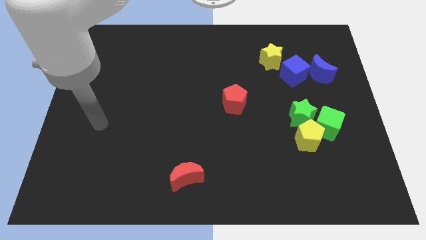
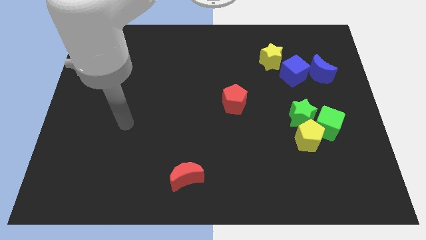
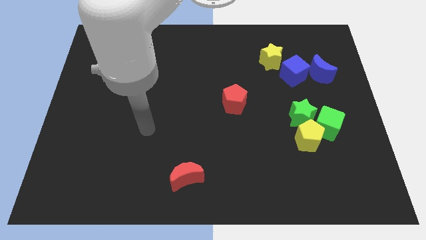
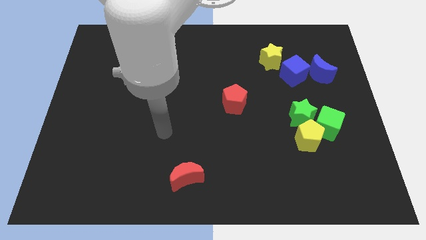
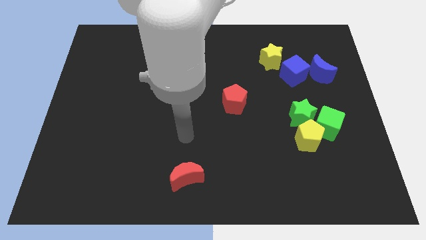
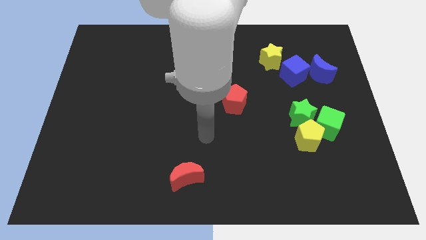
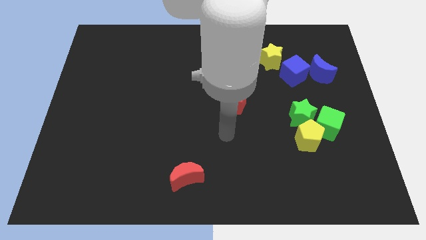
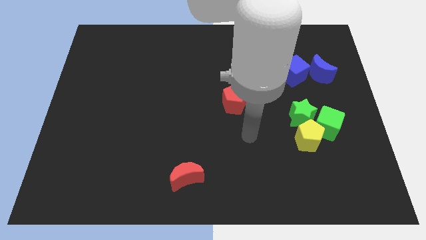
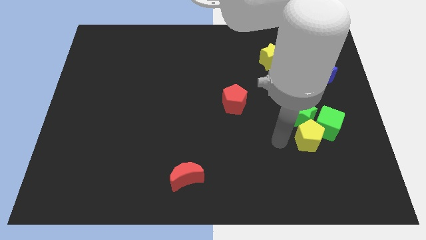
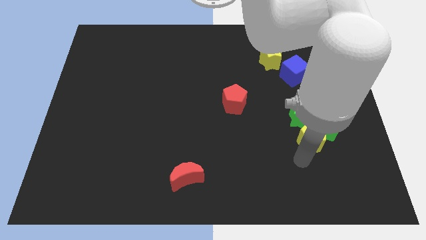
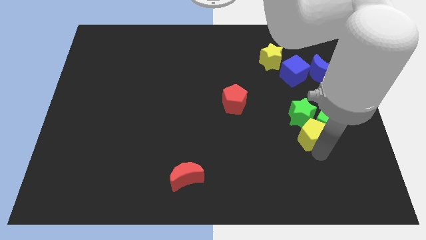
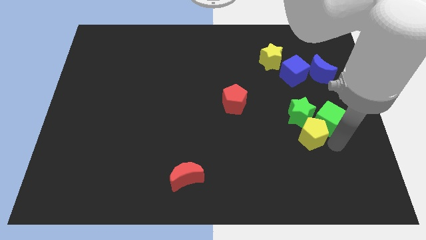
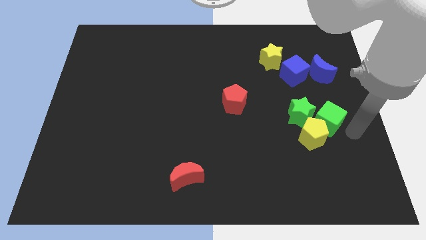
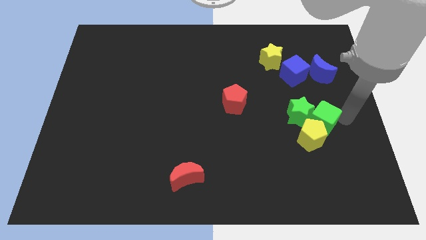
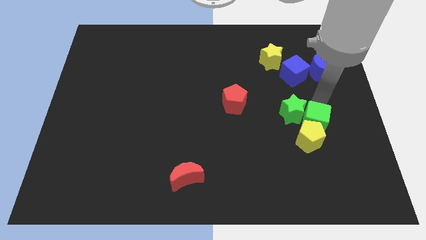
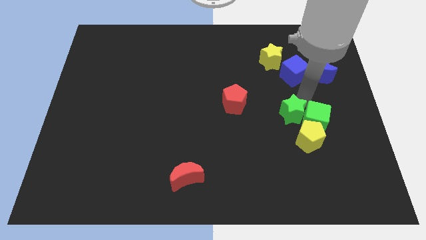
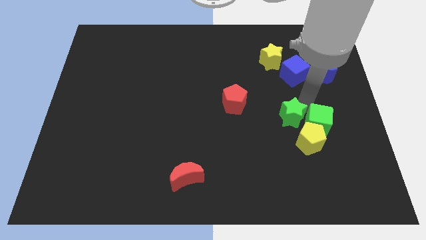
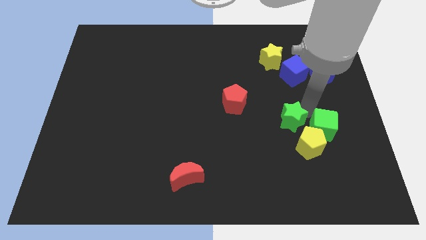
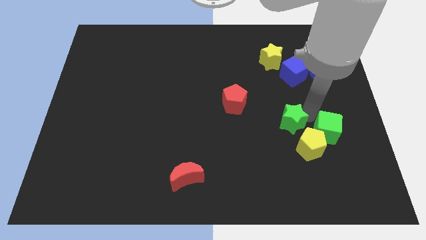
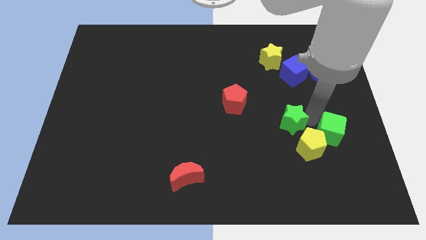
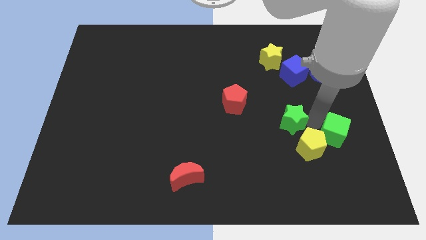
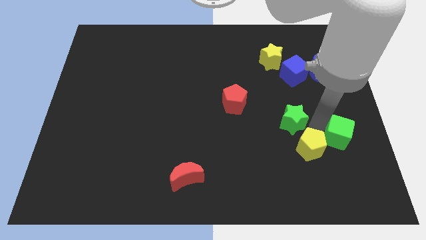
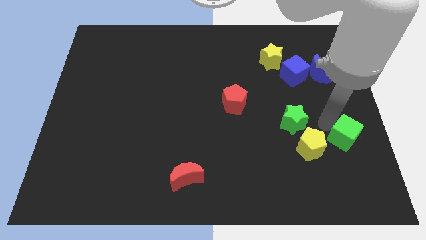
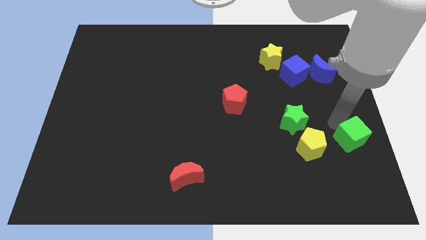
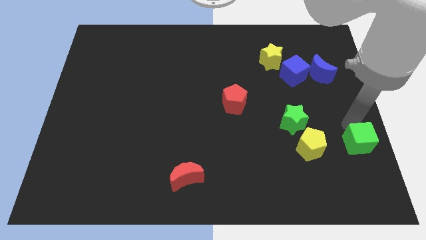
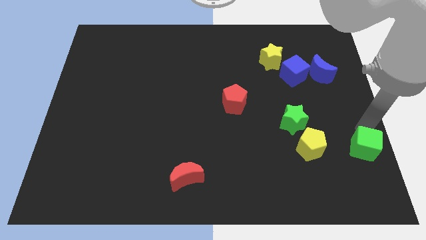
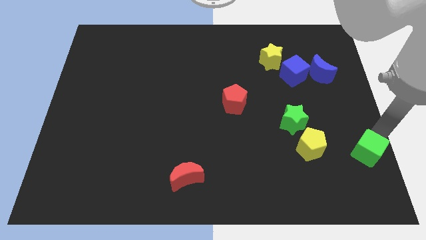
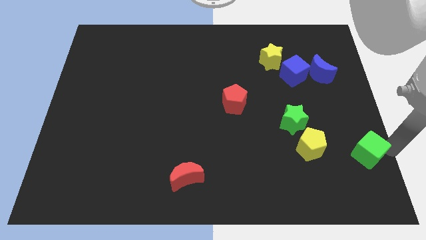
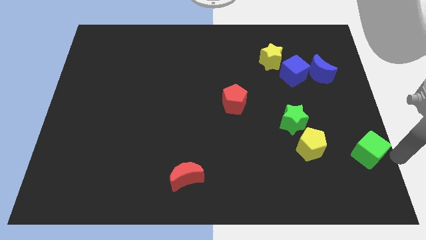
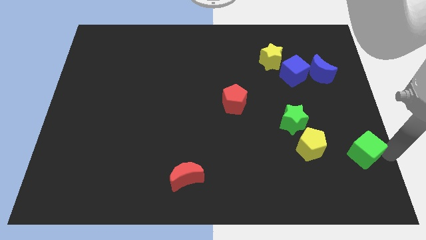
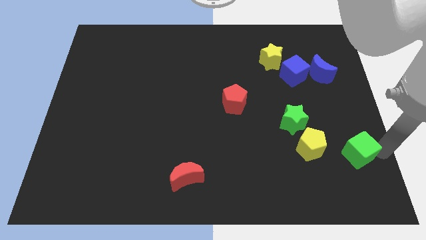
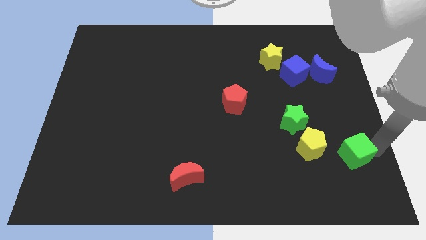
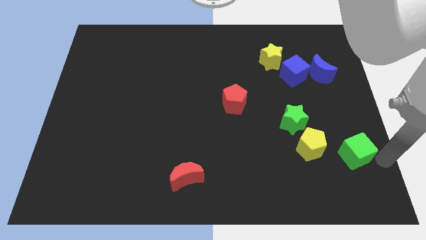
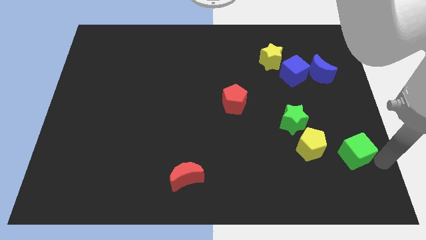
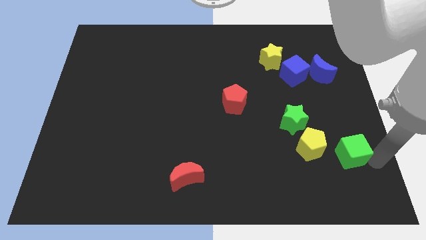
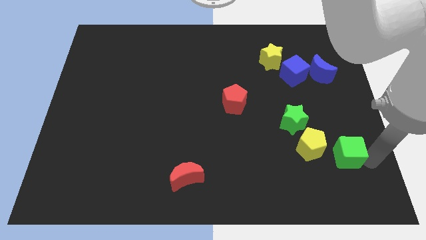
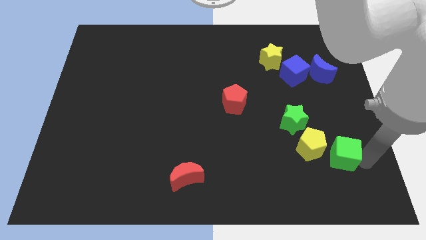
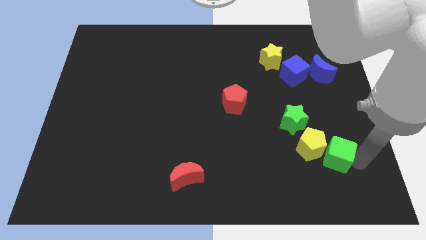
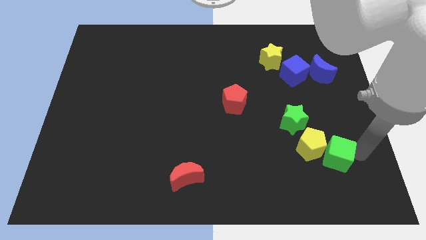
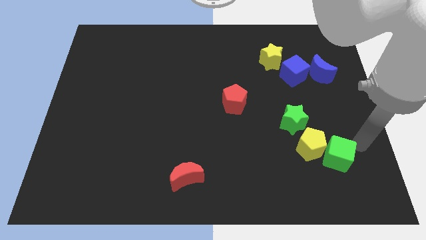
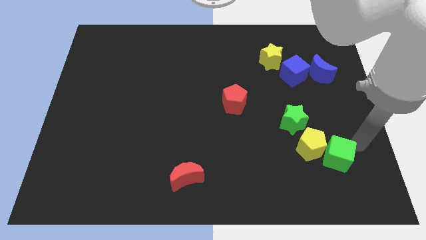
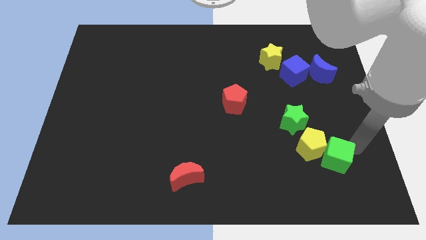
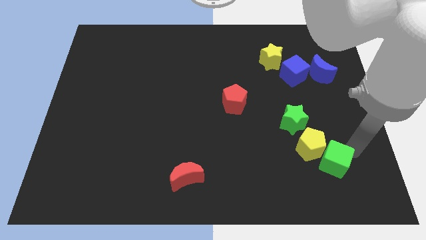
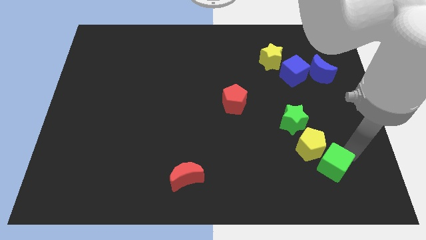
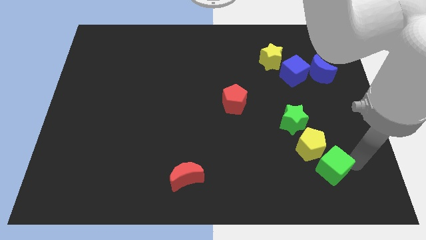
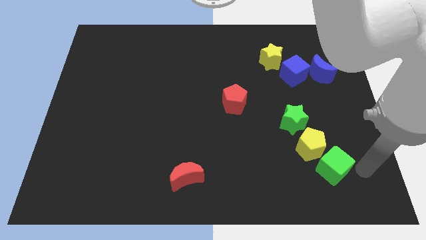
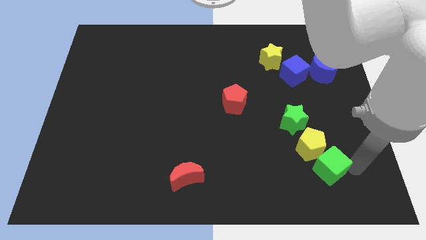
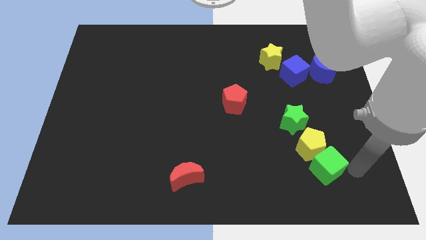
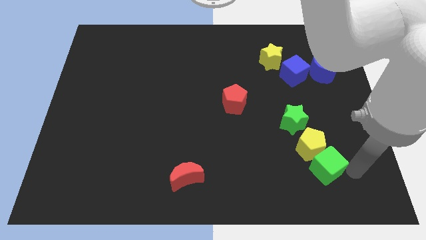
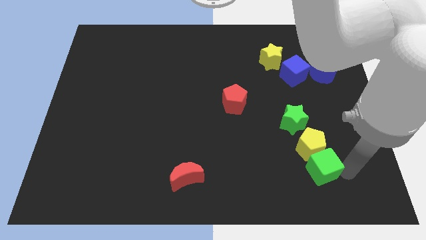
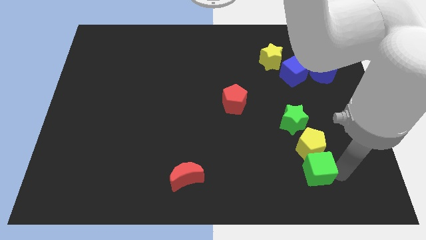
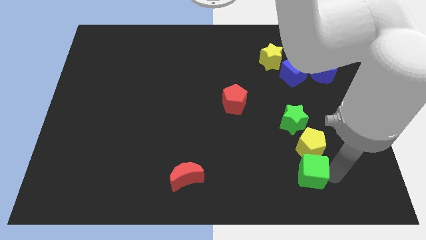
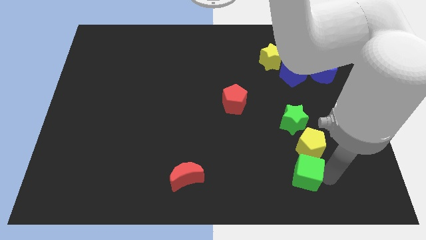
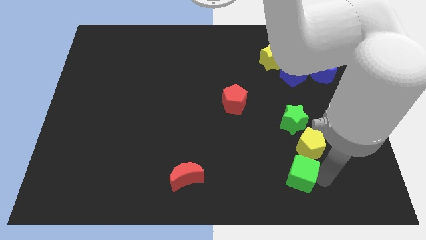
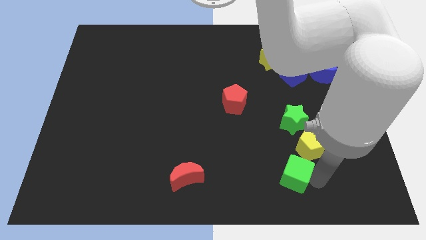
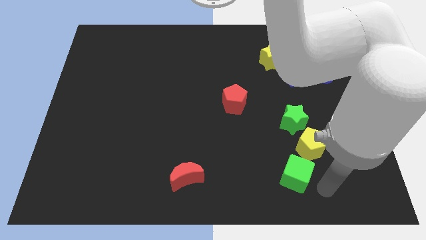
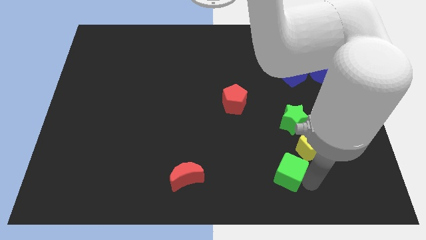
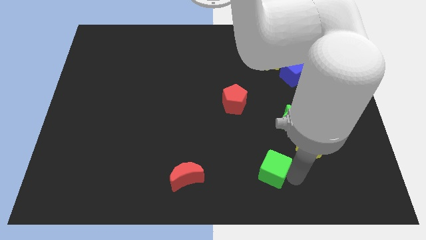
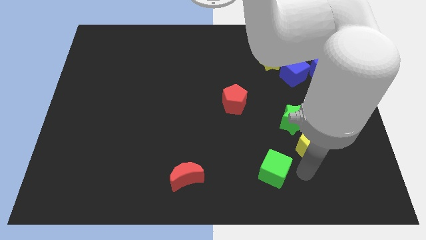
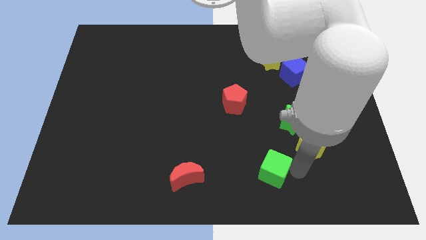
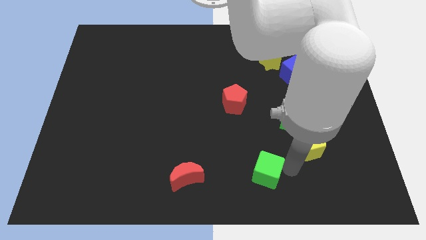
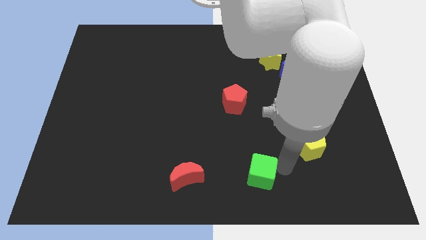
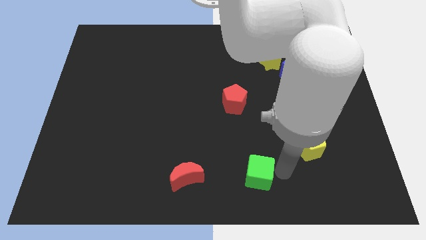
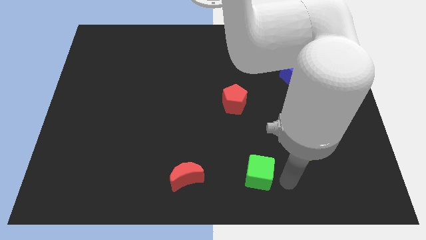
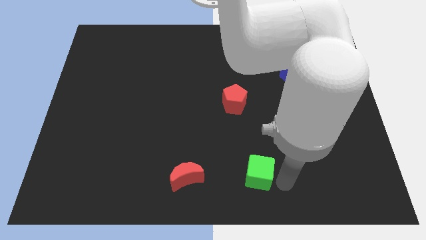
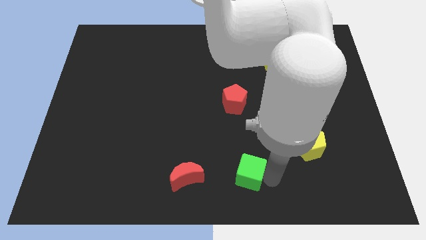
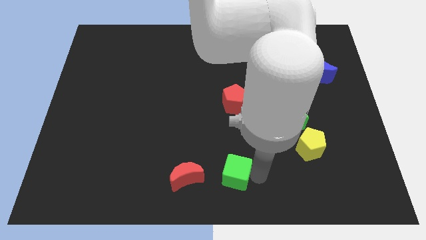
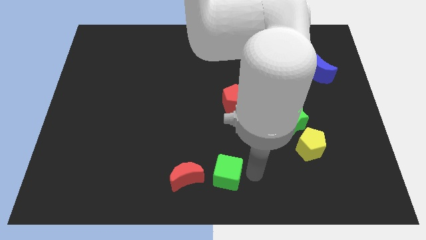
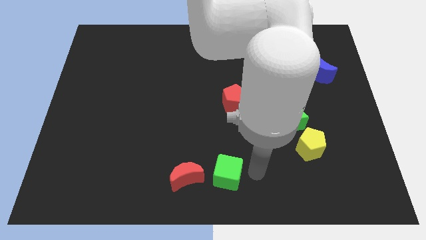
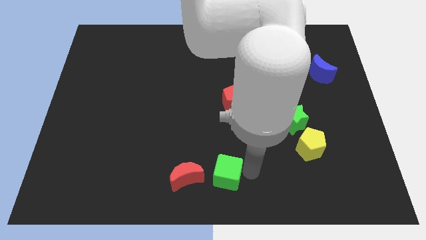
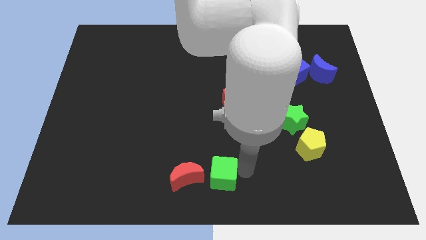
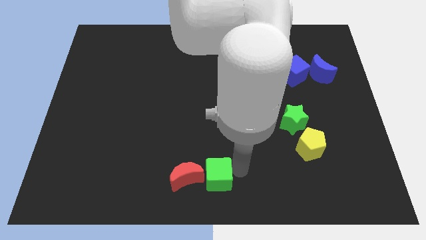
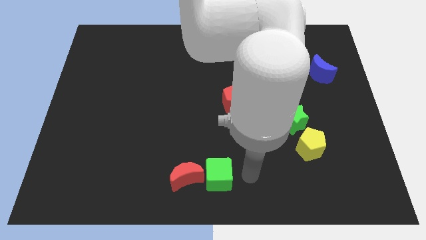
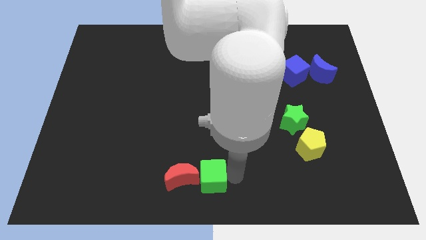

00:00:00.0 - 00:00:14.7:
move the green cube towards the red moon

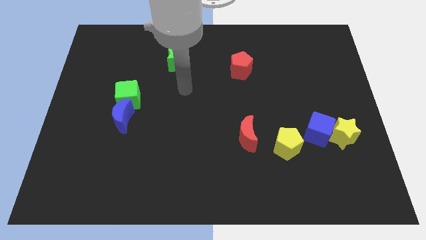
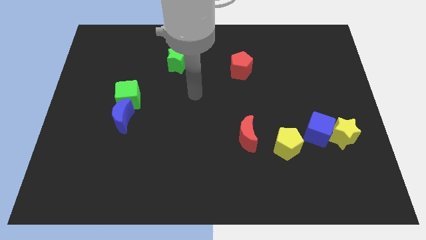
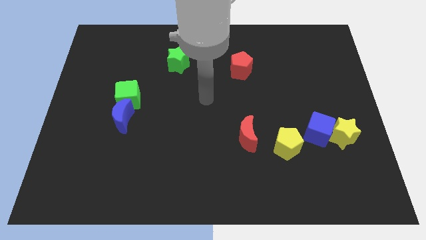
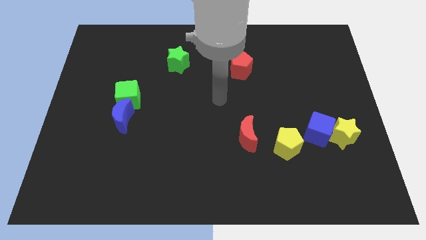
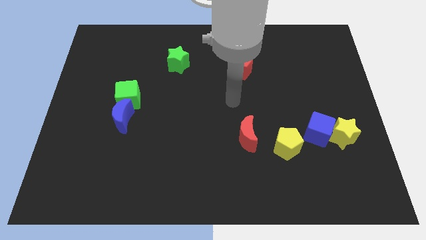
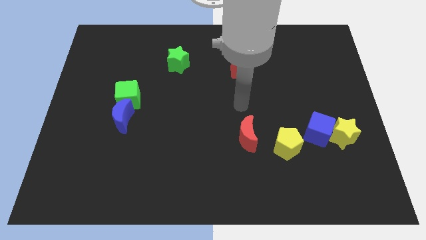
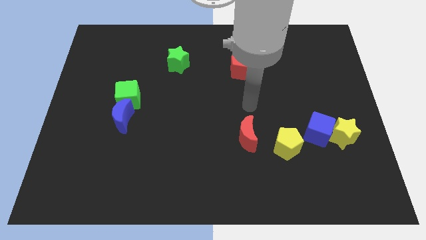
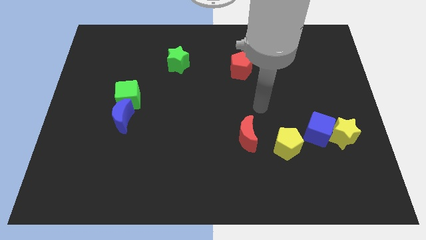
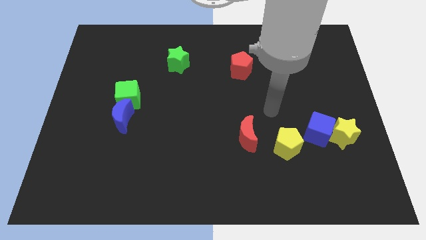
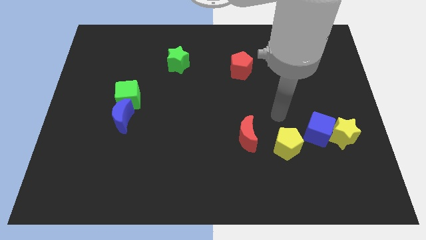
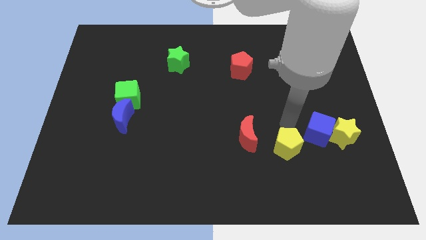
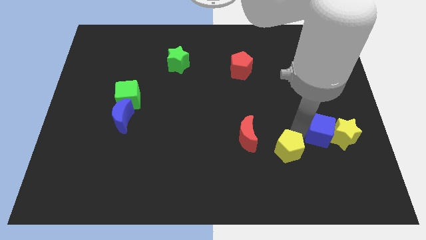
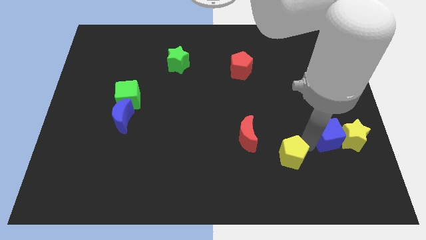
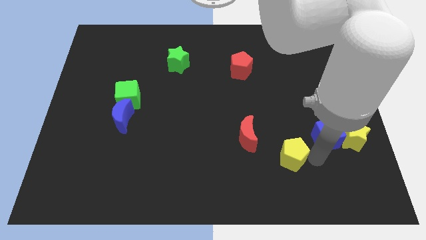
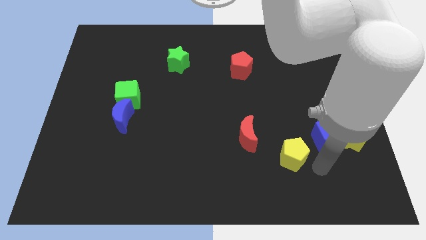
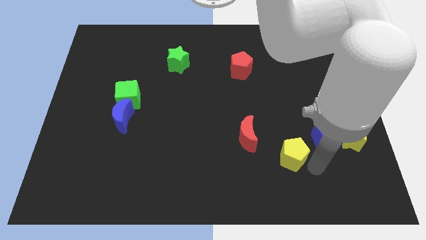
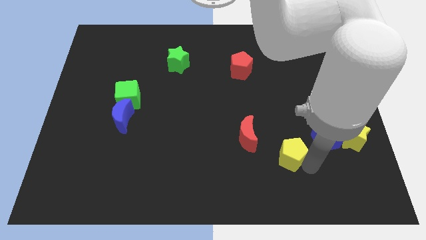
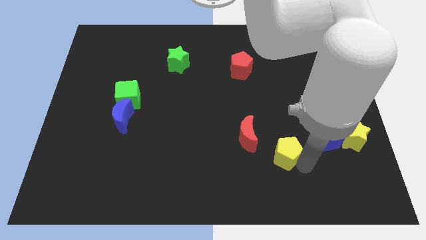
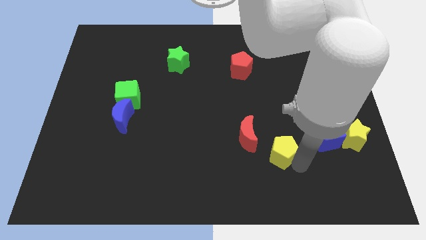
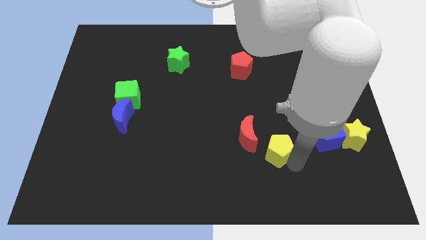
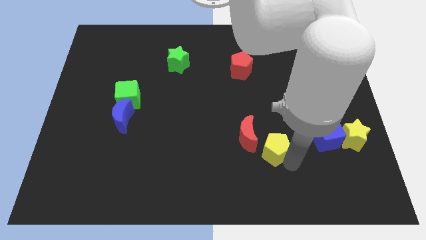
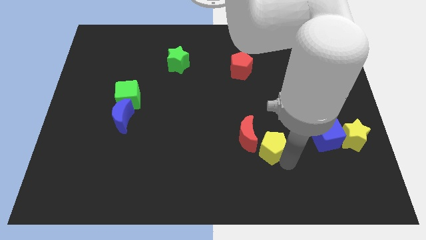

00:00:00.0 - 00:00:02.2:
move the yellow pentagon close to the red moon
